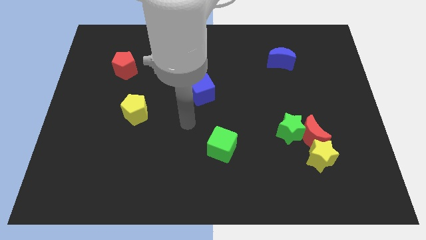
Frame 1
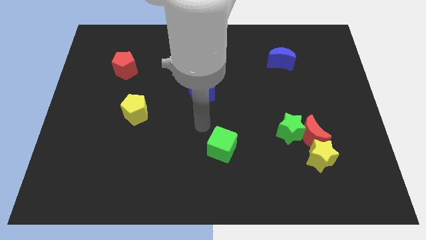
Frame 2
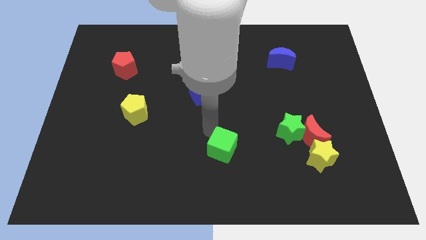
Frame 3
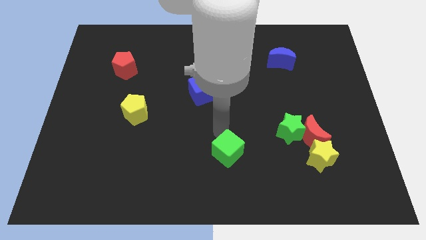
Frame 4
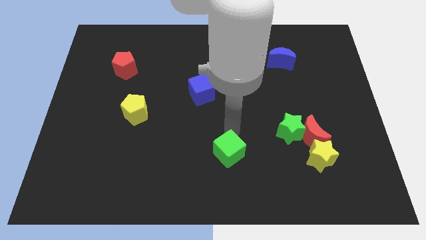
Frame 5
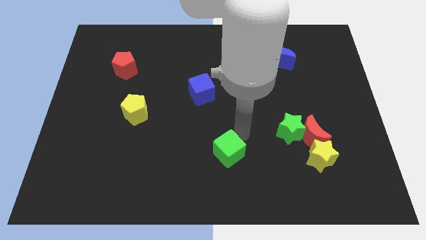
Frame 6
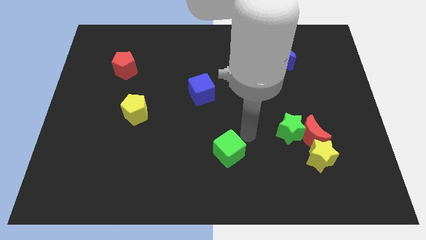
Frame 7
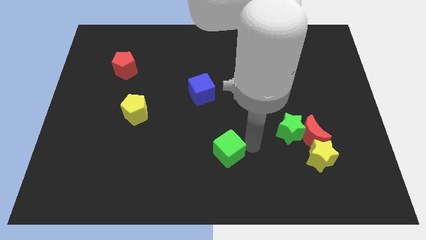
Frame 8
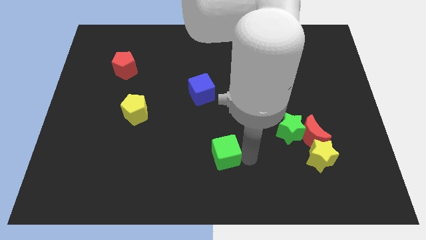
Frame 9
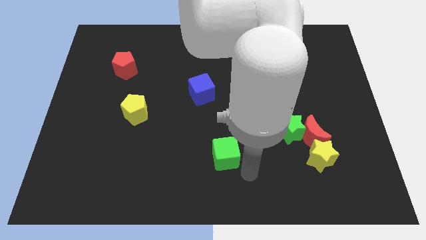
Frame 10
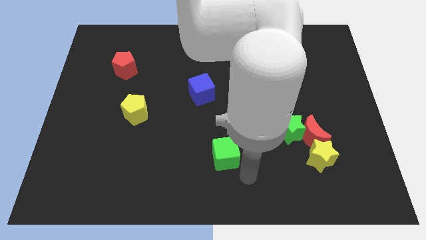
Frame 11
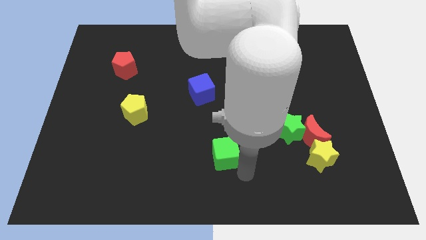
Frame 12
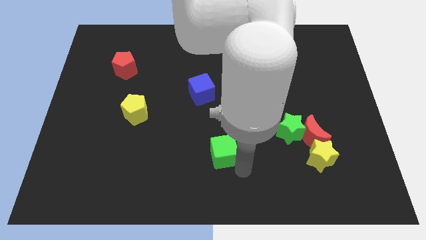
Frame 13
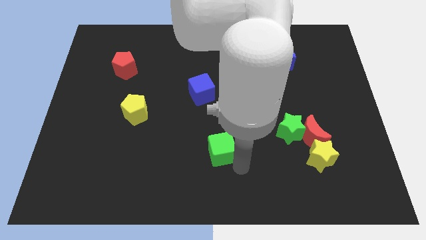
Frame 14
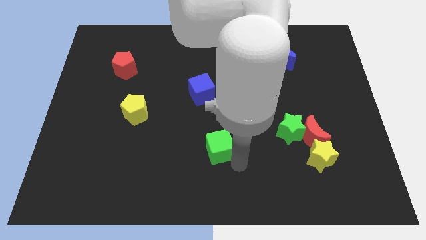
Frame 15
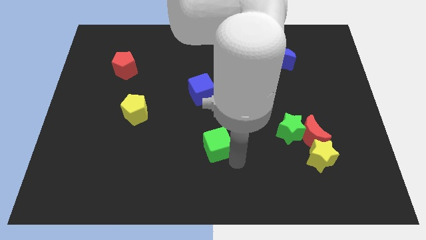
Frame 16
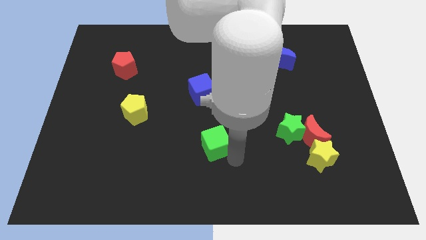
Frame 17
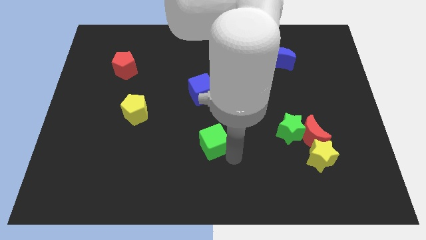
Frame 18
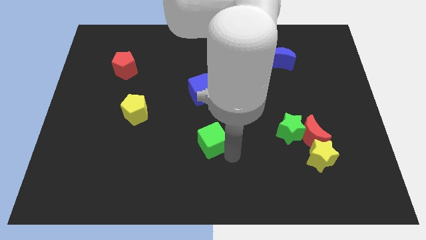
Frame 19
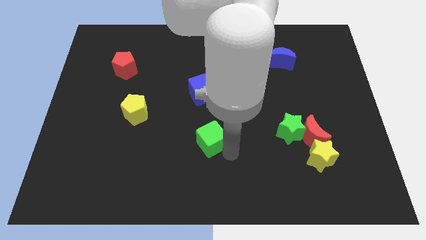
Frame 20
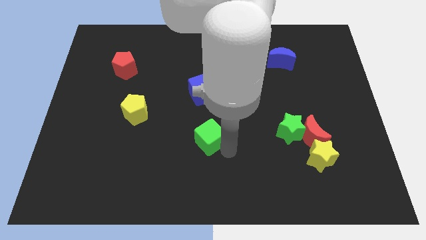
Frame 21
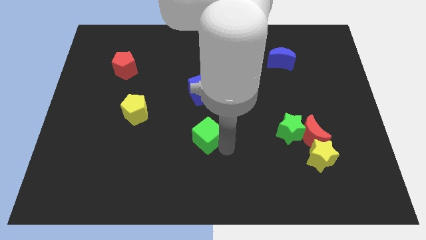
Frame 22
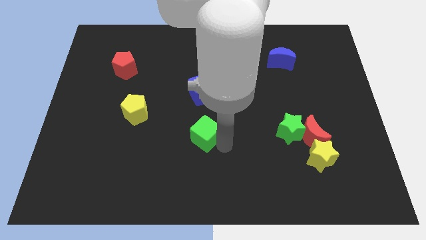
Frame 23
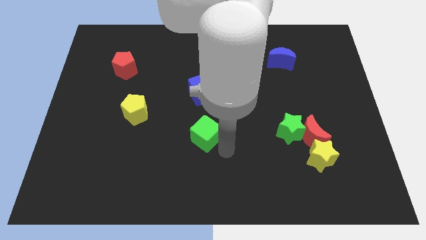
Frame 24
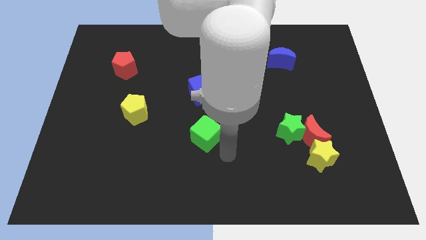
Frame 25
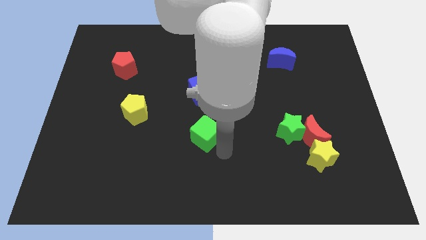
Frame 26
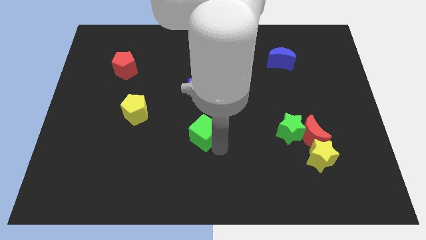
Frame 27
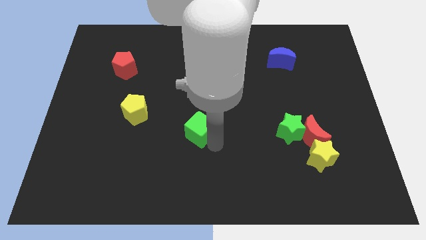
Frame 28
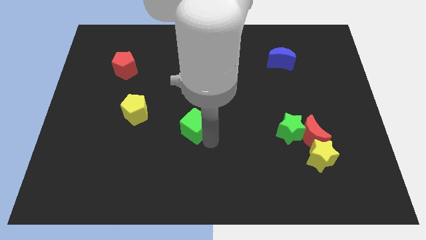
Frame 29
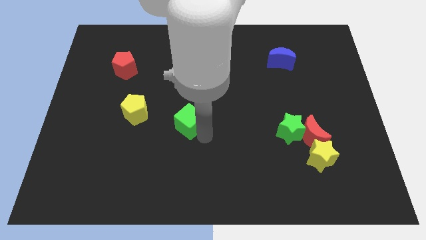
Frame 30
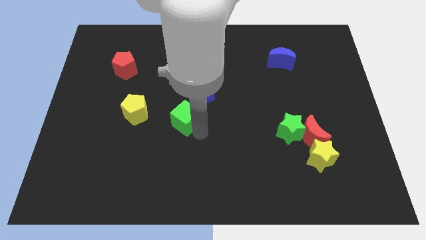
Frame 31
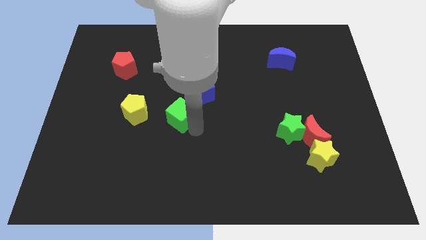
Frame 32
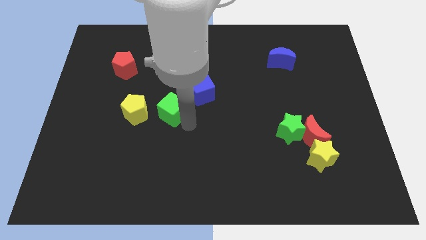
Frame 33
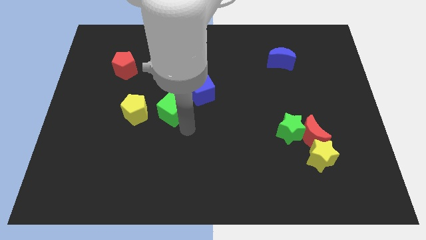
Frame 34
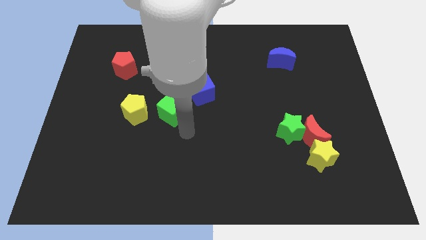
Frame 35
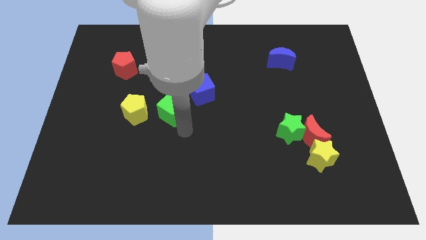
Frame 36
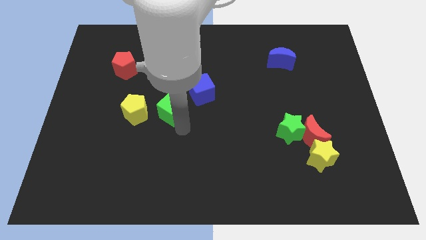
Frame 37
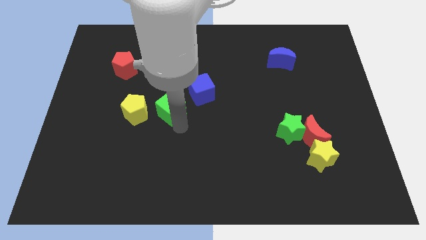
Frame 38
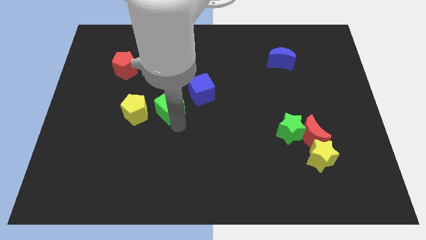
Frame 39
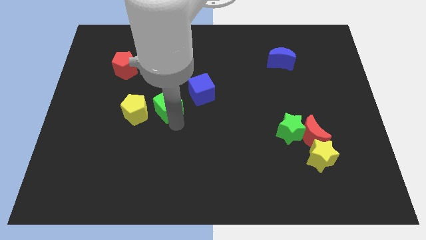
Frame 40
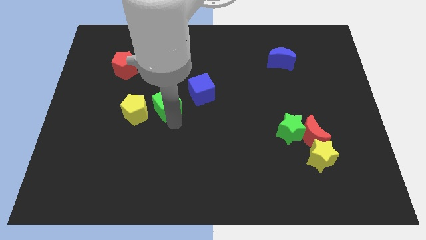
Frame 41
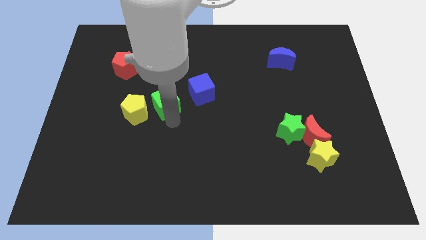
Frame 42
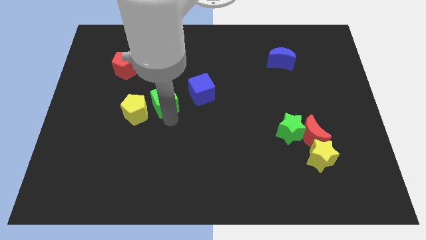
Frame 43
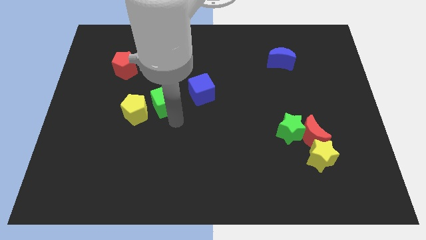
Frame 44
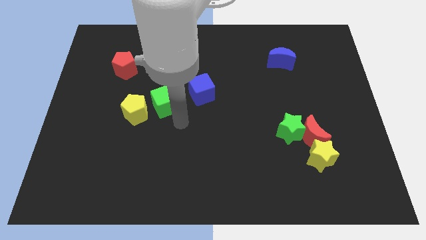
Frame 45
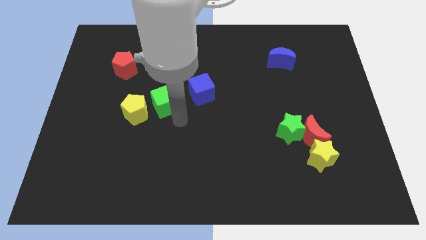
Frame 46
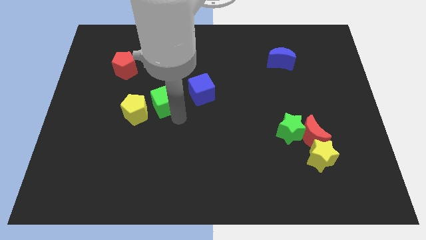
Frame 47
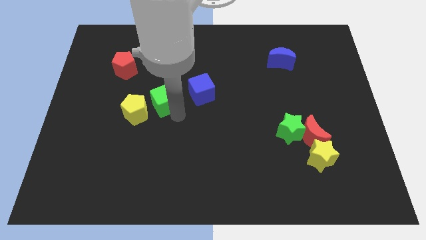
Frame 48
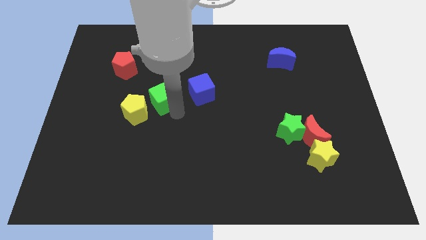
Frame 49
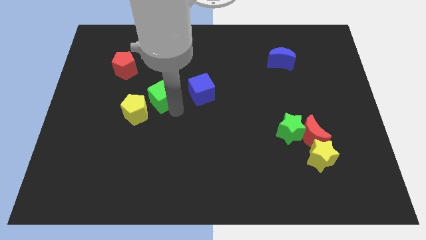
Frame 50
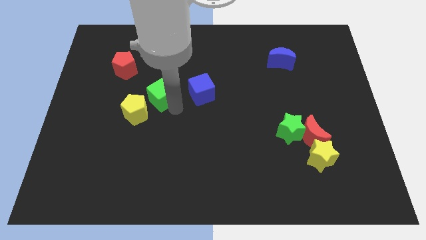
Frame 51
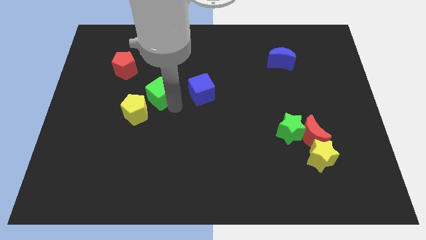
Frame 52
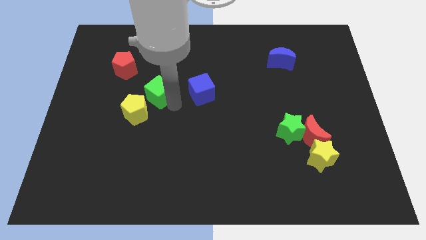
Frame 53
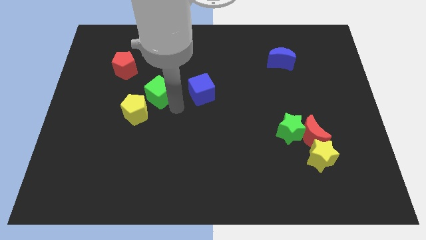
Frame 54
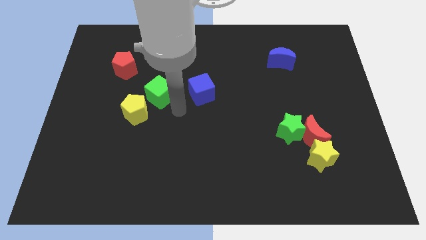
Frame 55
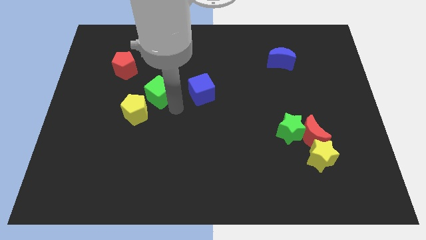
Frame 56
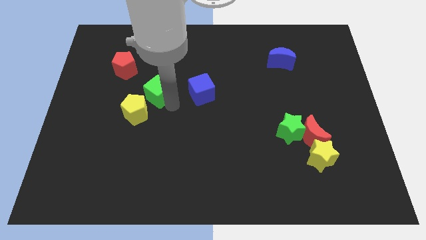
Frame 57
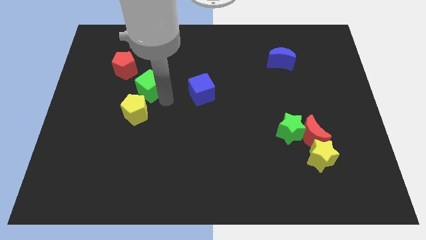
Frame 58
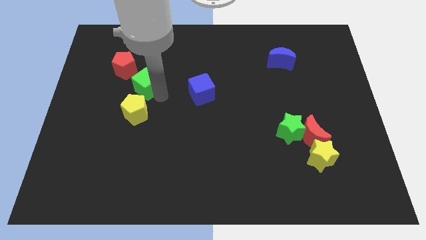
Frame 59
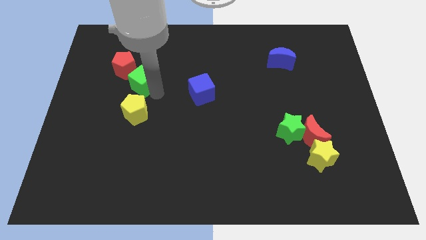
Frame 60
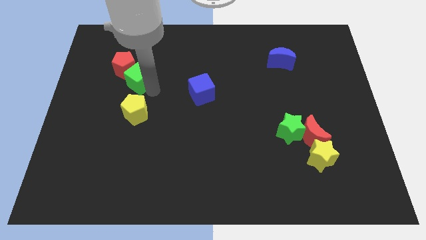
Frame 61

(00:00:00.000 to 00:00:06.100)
move the green cube to the red pentagon

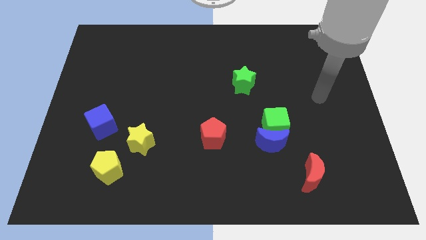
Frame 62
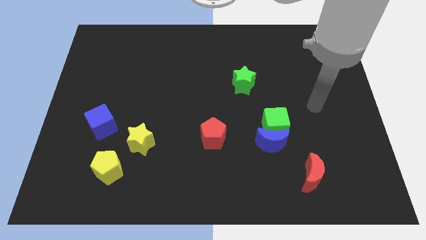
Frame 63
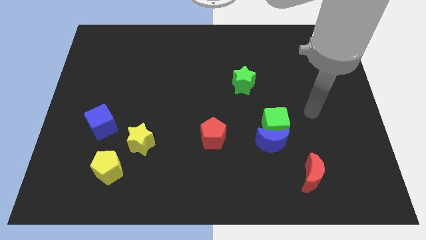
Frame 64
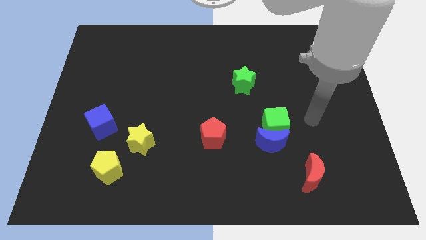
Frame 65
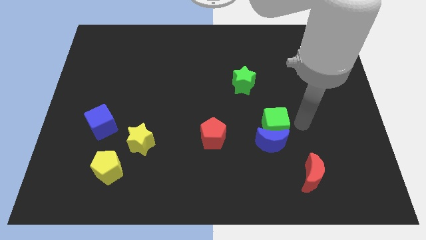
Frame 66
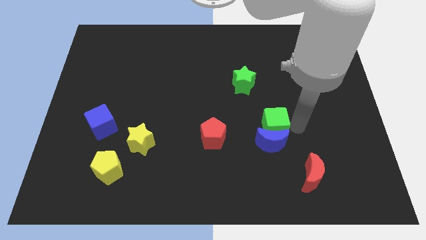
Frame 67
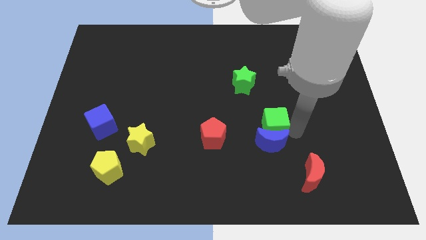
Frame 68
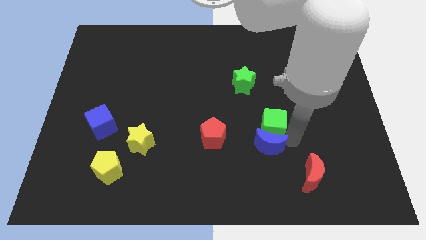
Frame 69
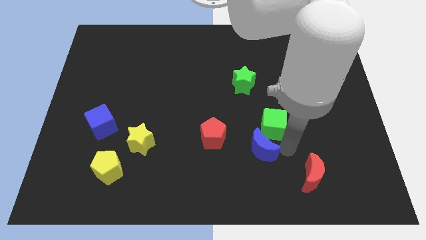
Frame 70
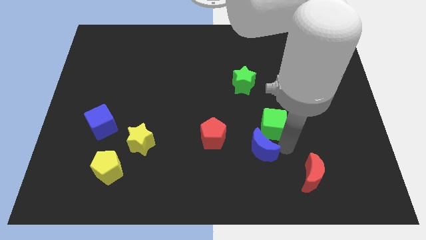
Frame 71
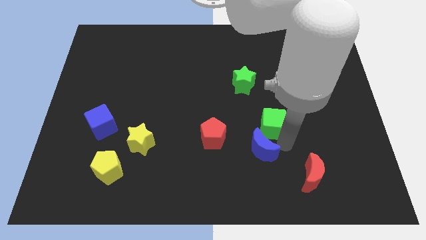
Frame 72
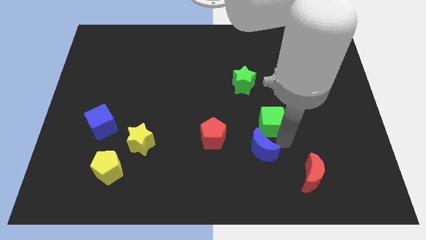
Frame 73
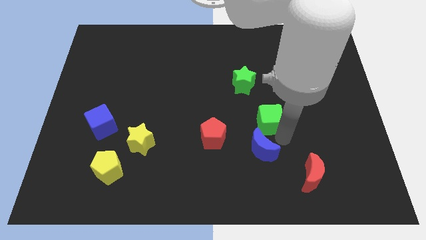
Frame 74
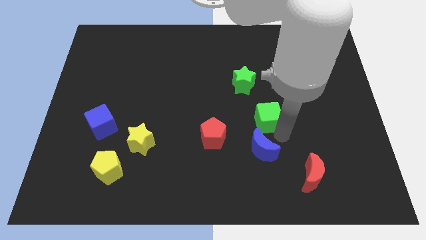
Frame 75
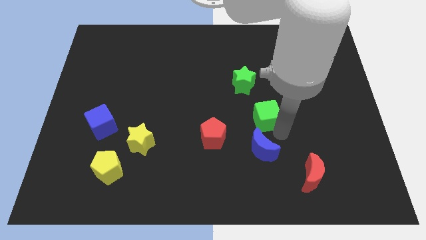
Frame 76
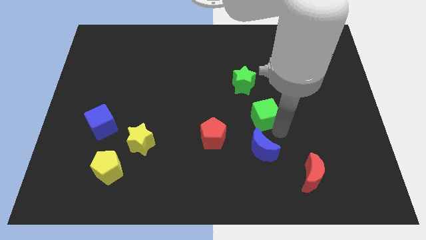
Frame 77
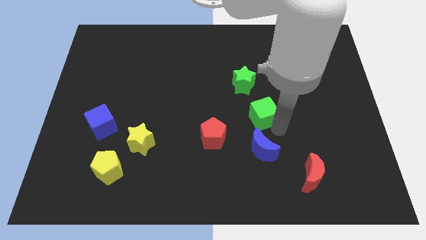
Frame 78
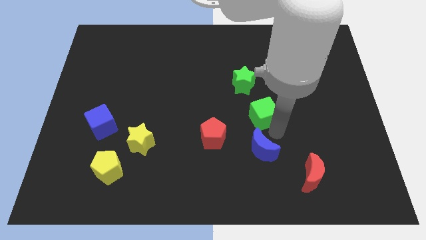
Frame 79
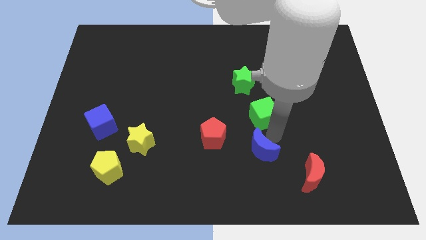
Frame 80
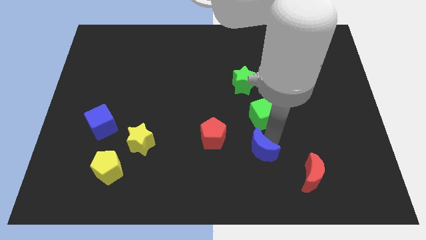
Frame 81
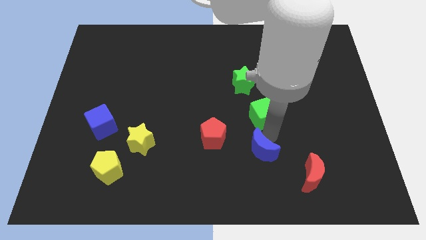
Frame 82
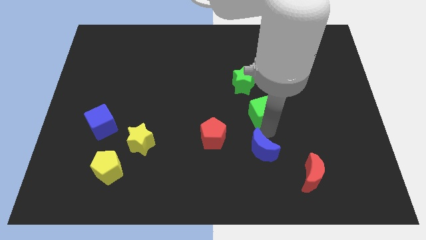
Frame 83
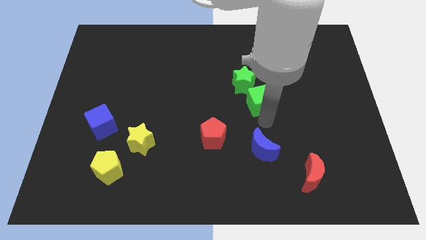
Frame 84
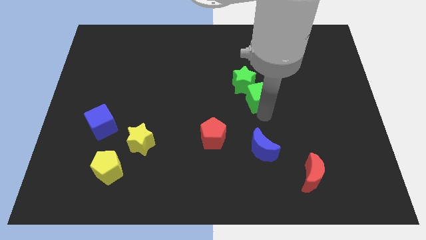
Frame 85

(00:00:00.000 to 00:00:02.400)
push the green cube close to the green star
